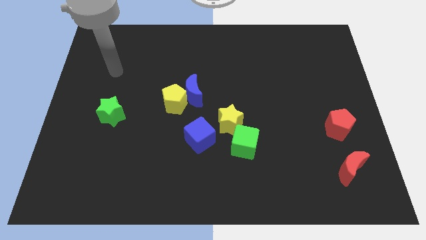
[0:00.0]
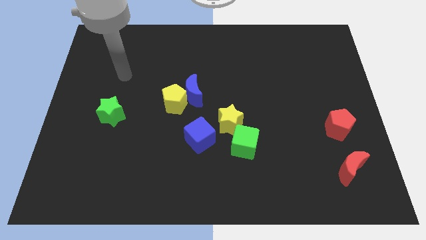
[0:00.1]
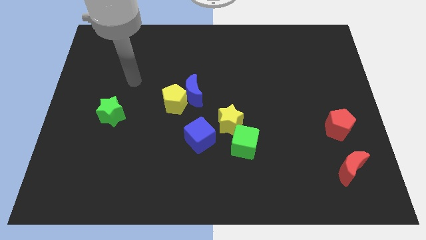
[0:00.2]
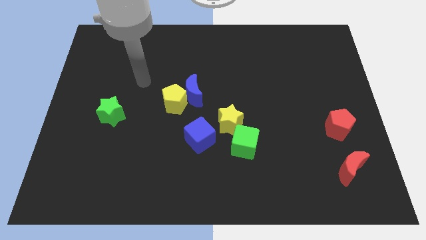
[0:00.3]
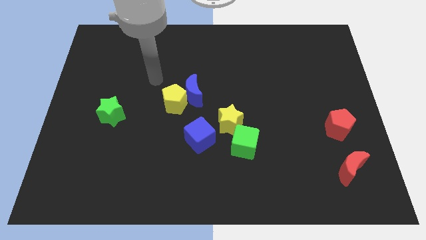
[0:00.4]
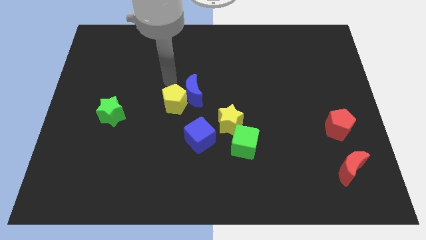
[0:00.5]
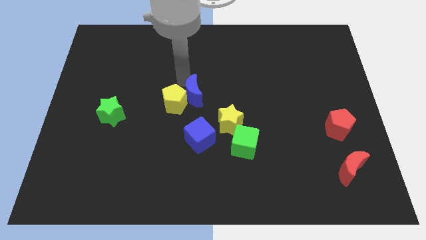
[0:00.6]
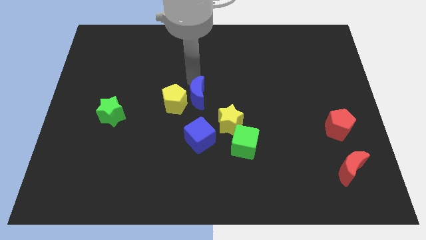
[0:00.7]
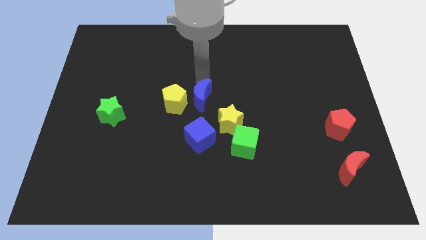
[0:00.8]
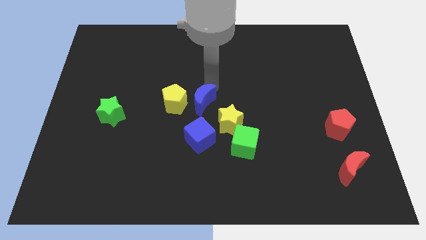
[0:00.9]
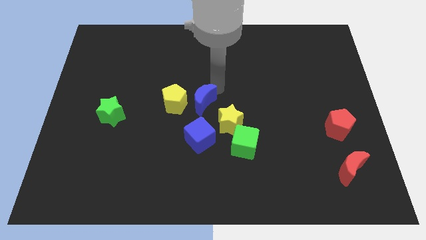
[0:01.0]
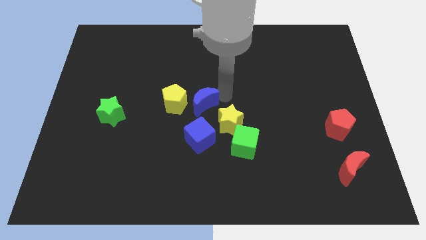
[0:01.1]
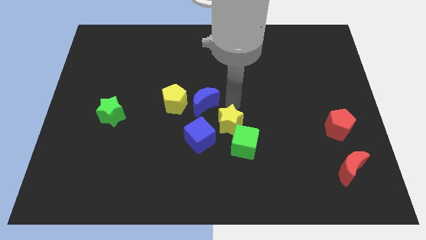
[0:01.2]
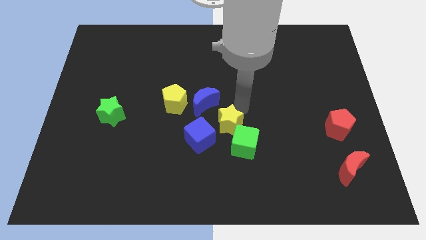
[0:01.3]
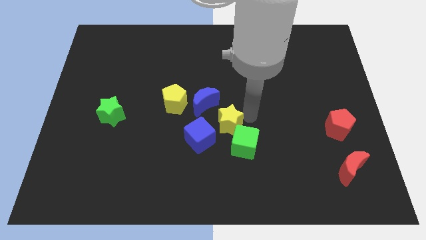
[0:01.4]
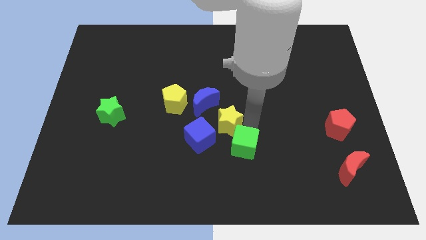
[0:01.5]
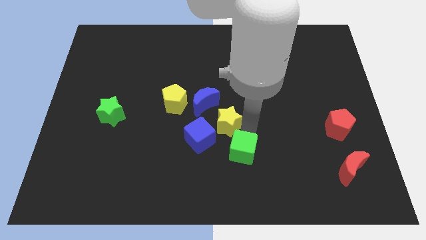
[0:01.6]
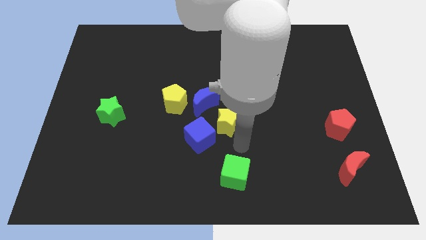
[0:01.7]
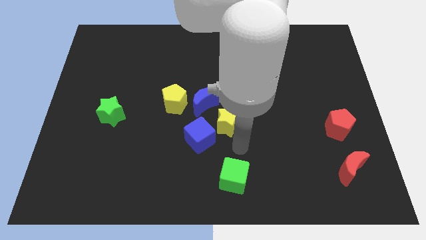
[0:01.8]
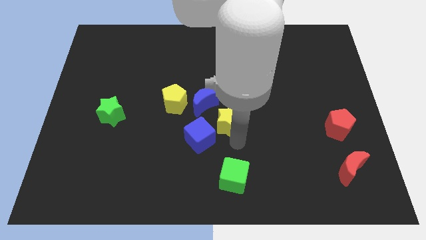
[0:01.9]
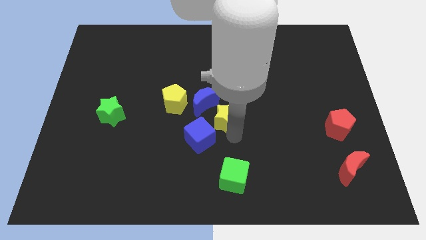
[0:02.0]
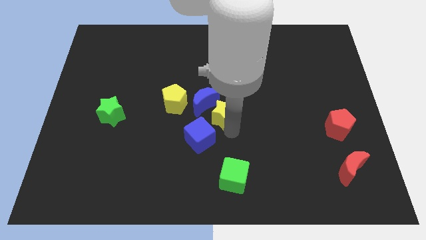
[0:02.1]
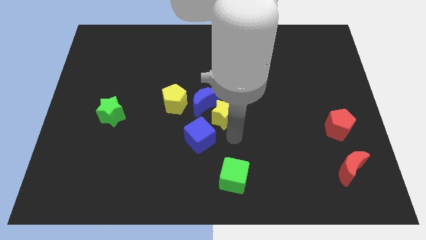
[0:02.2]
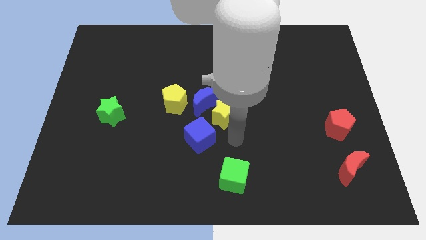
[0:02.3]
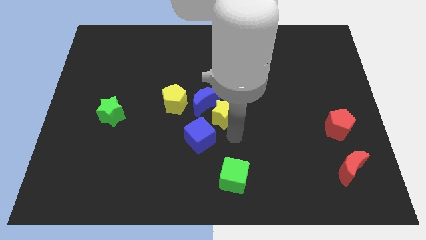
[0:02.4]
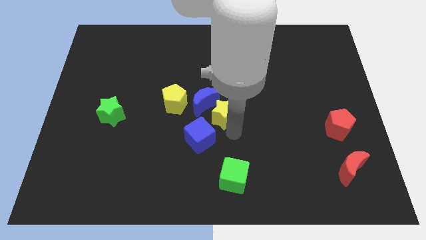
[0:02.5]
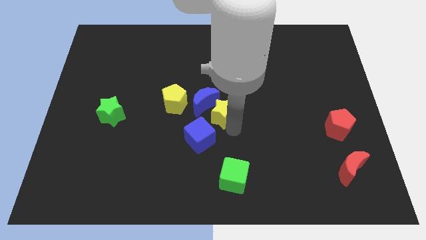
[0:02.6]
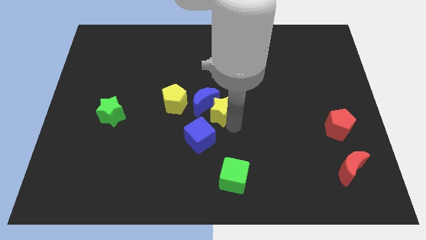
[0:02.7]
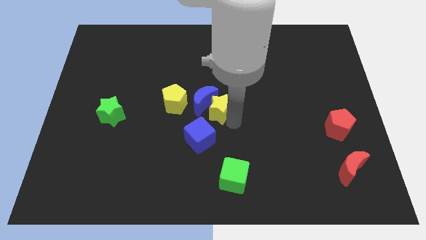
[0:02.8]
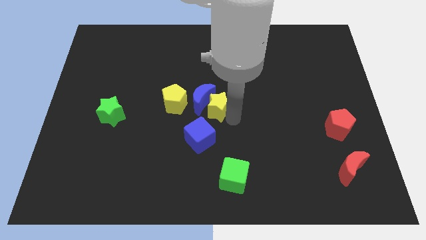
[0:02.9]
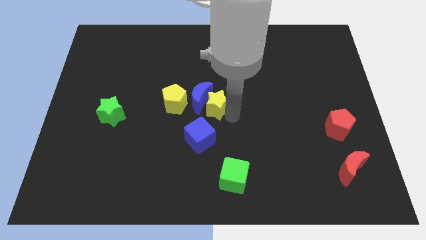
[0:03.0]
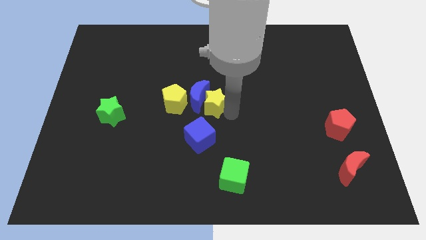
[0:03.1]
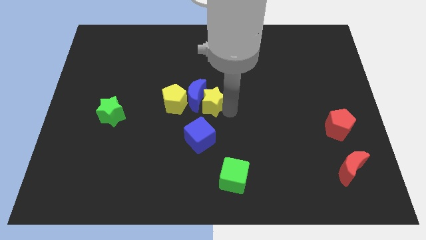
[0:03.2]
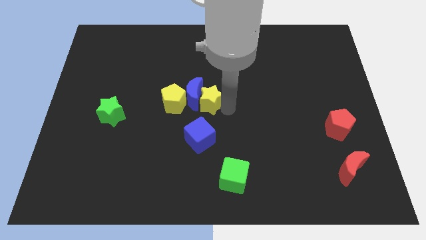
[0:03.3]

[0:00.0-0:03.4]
slightly move the yellow star upwards and left

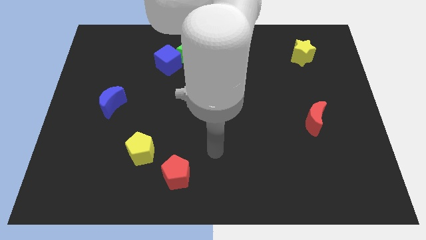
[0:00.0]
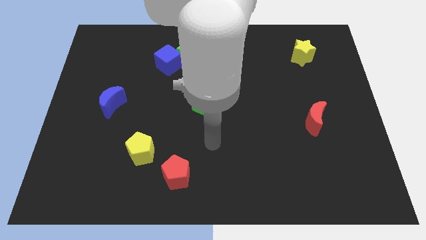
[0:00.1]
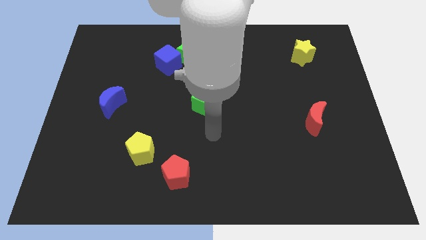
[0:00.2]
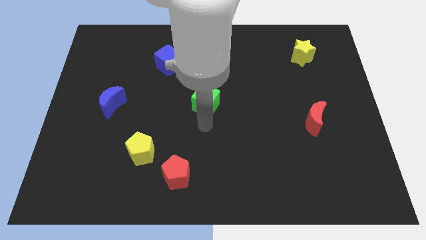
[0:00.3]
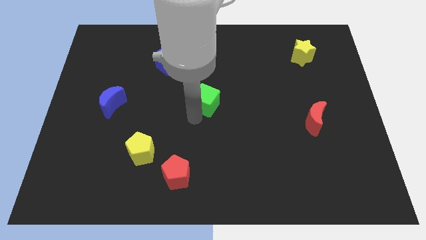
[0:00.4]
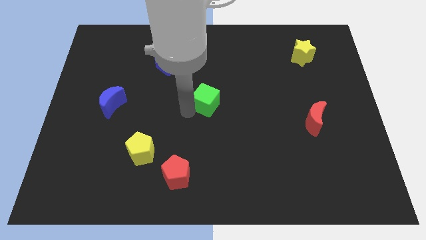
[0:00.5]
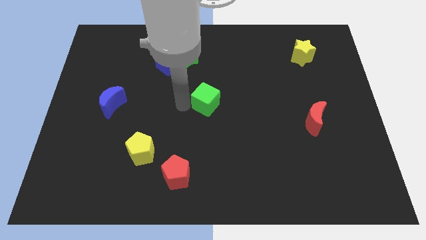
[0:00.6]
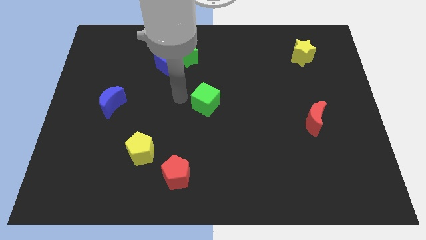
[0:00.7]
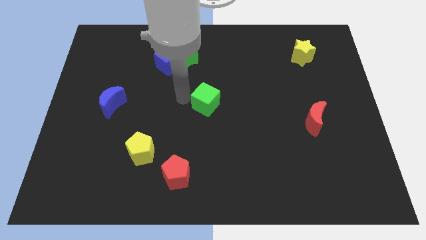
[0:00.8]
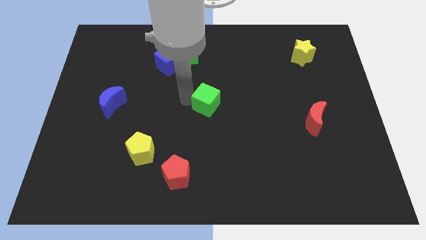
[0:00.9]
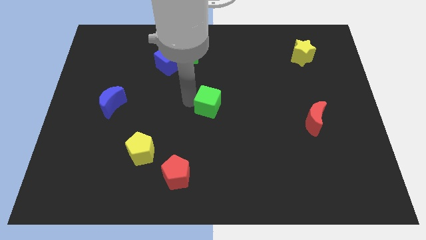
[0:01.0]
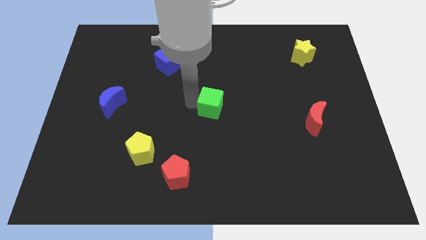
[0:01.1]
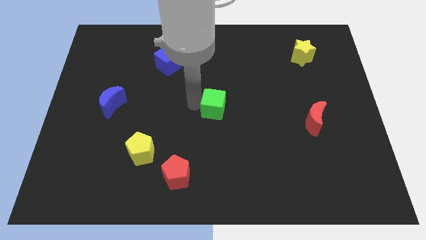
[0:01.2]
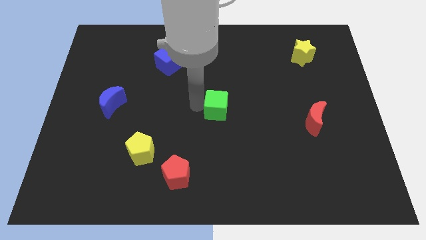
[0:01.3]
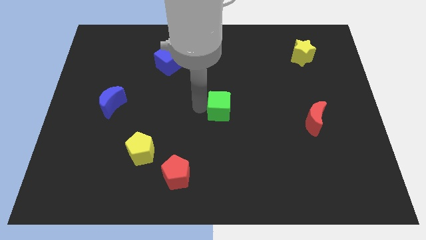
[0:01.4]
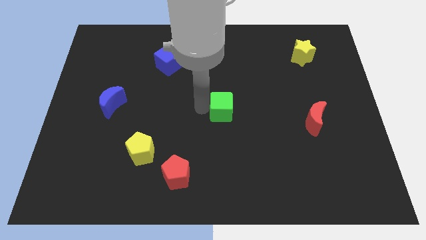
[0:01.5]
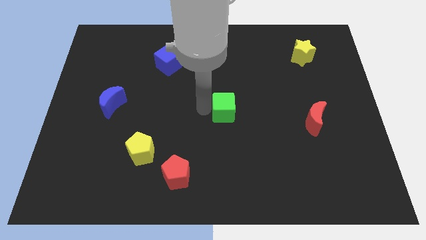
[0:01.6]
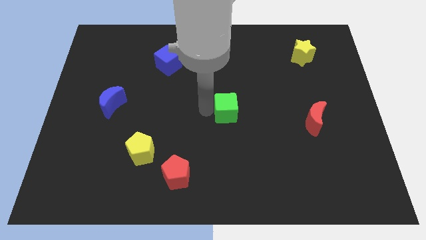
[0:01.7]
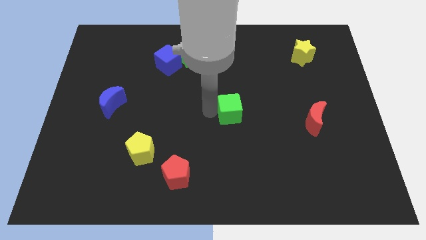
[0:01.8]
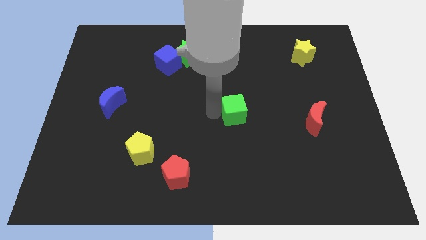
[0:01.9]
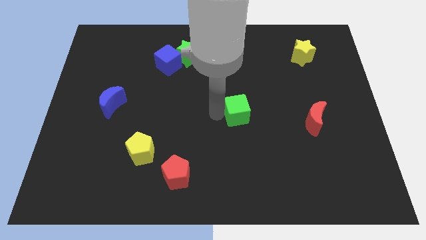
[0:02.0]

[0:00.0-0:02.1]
push the green cube right somewhat

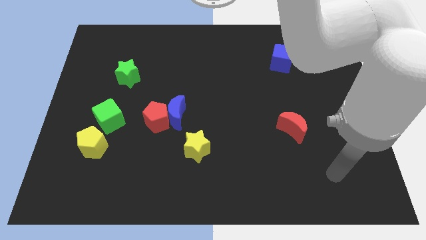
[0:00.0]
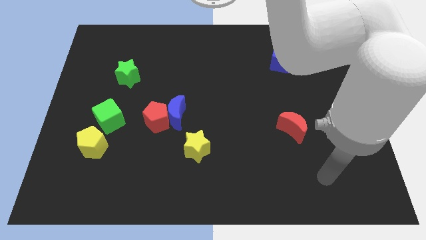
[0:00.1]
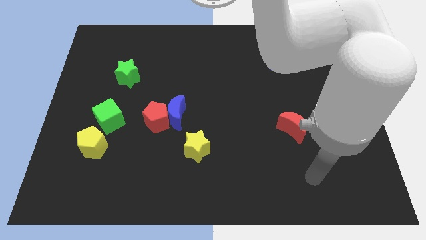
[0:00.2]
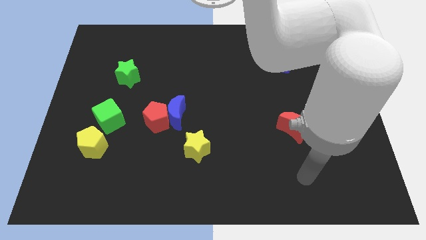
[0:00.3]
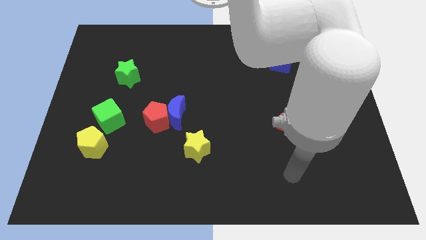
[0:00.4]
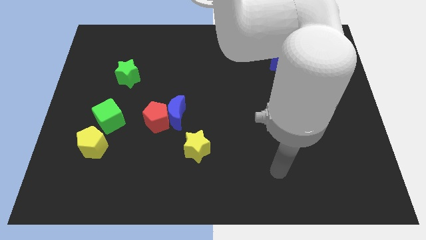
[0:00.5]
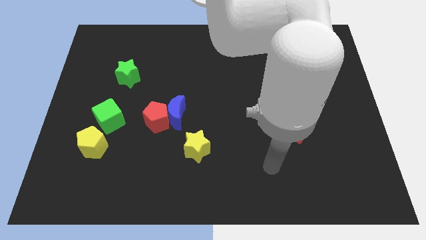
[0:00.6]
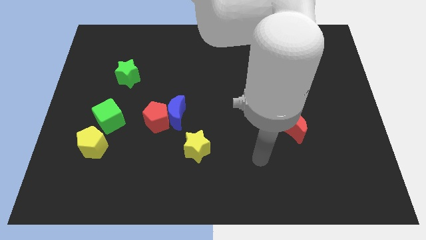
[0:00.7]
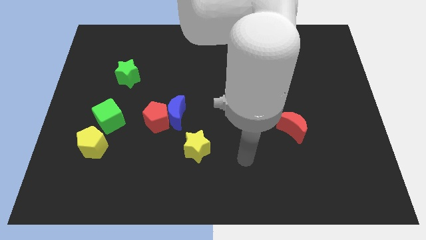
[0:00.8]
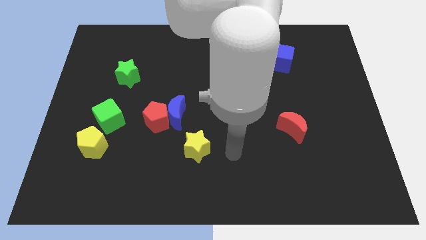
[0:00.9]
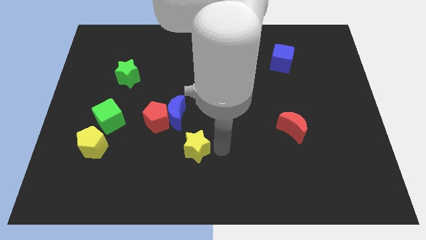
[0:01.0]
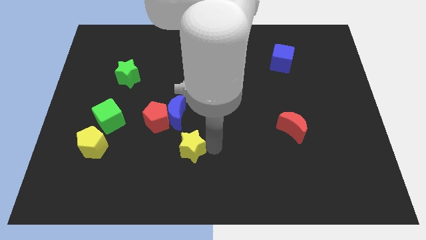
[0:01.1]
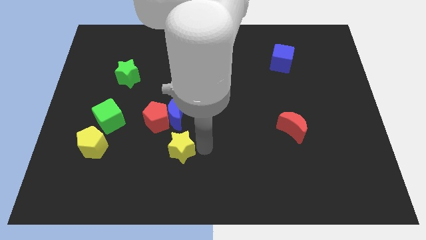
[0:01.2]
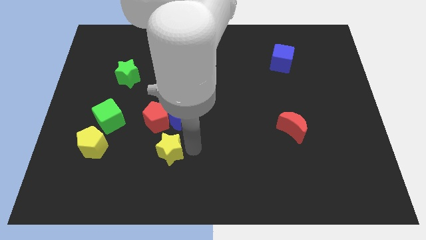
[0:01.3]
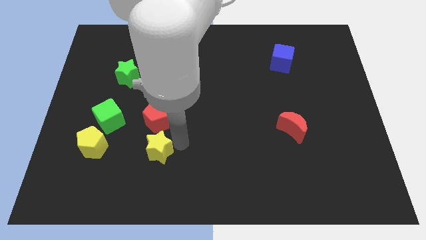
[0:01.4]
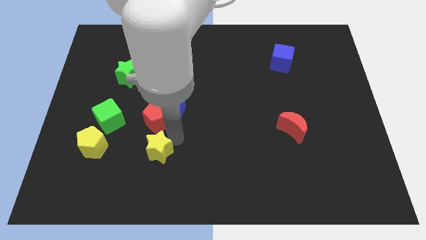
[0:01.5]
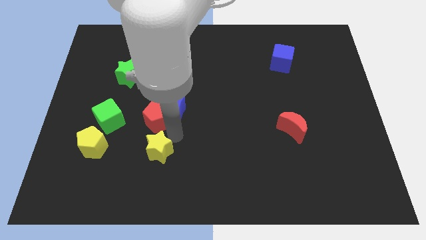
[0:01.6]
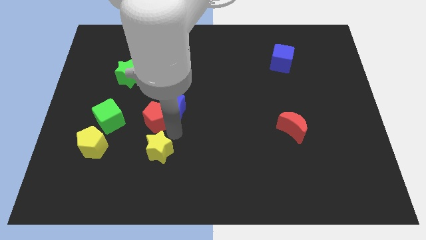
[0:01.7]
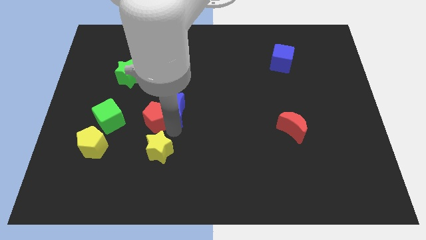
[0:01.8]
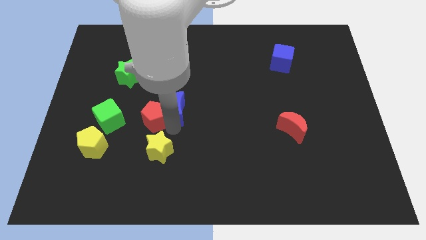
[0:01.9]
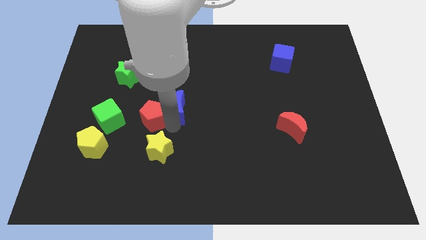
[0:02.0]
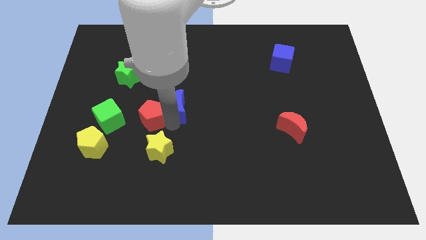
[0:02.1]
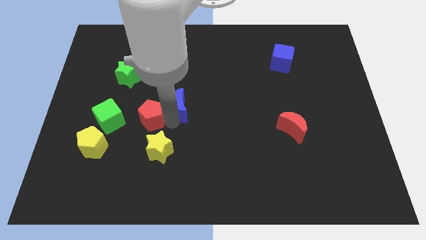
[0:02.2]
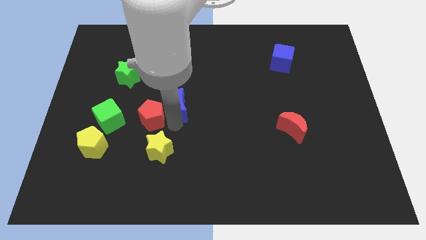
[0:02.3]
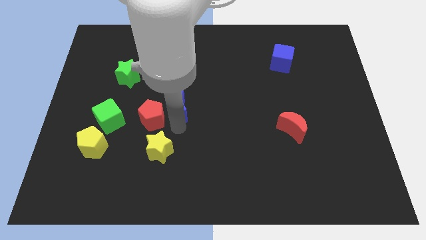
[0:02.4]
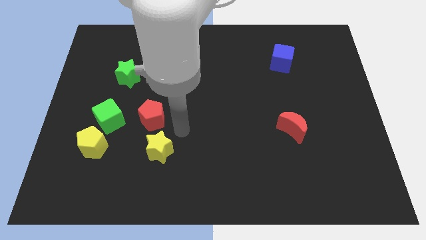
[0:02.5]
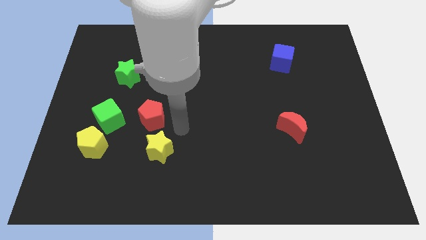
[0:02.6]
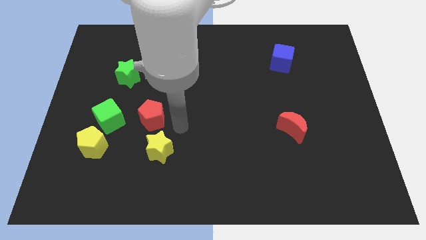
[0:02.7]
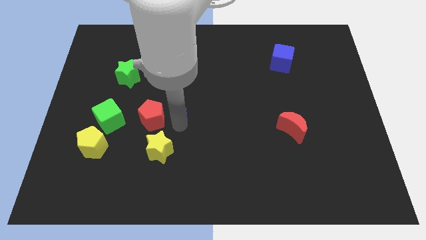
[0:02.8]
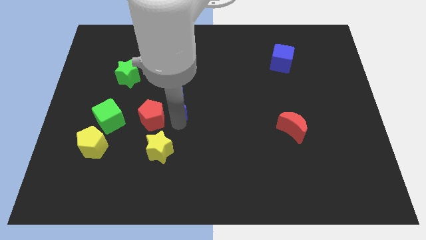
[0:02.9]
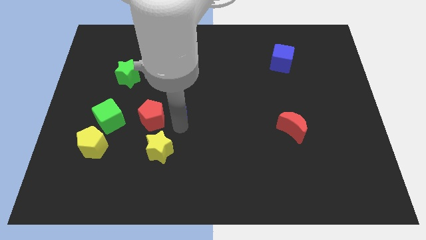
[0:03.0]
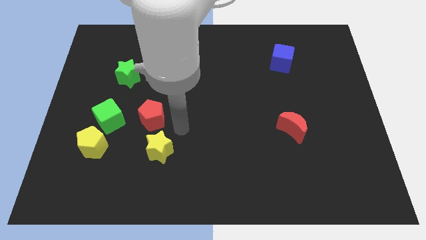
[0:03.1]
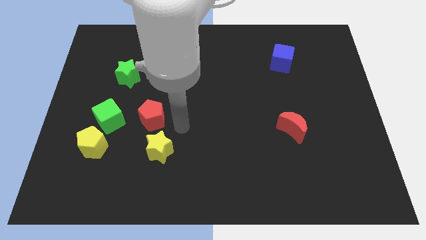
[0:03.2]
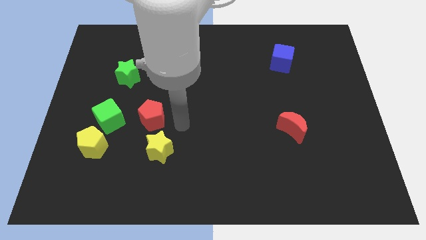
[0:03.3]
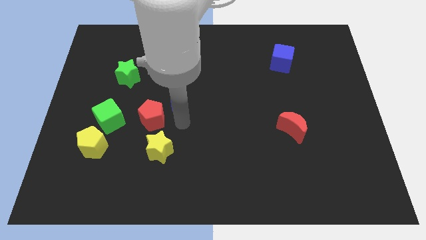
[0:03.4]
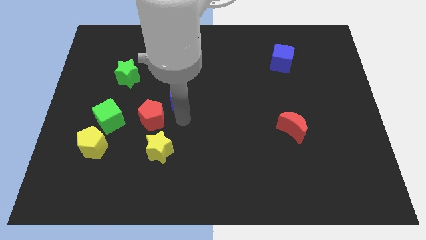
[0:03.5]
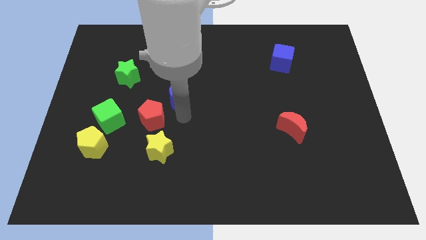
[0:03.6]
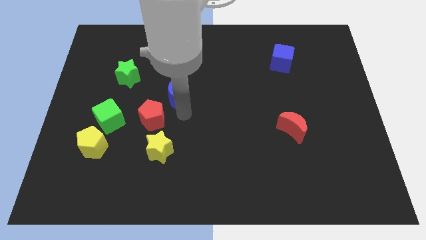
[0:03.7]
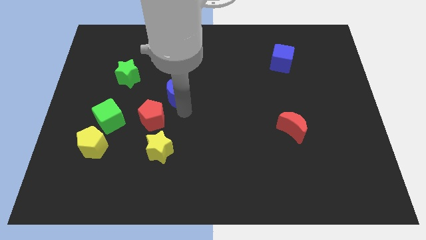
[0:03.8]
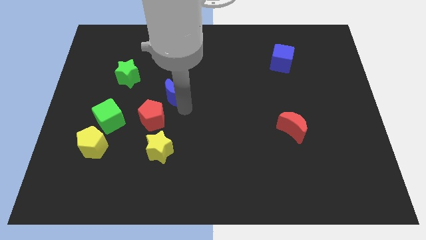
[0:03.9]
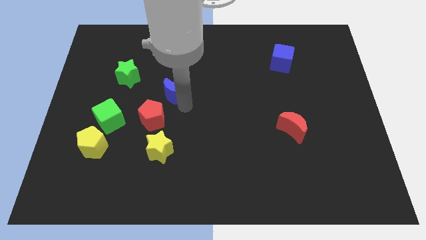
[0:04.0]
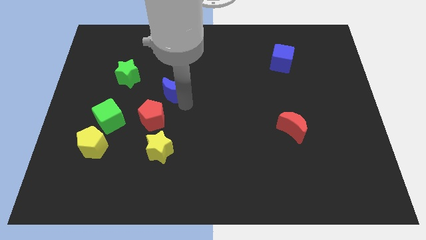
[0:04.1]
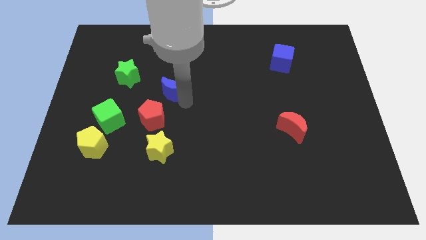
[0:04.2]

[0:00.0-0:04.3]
slide the blue moon up slightly
